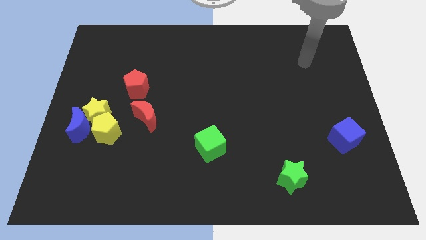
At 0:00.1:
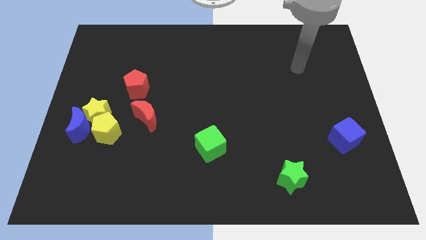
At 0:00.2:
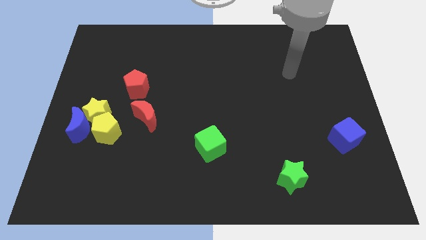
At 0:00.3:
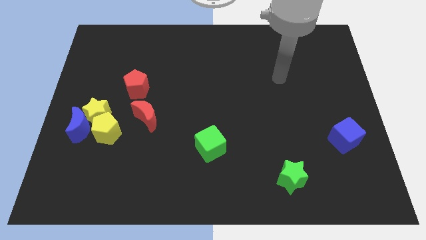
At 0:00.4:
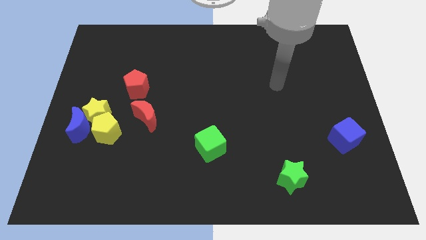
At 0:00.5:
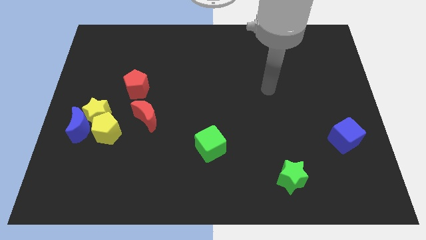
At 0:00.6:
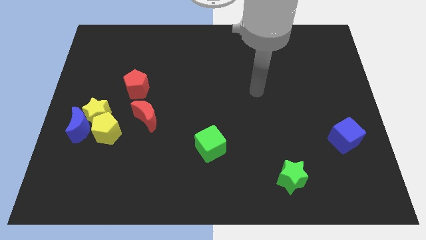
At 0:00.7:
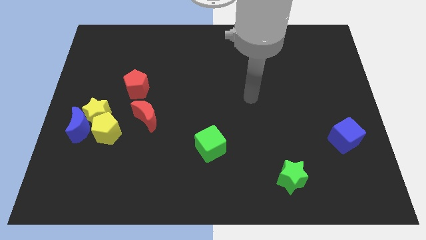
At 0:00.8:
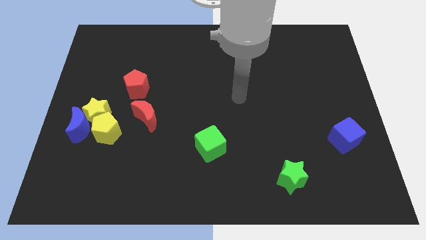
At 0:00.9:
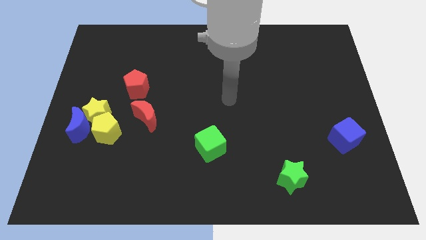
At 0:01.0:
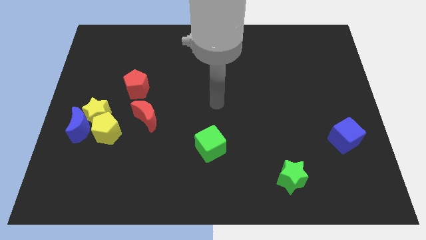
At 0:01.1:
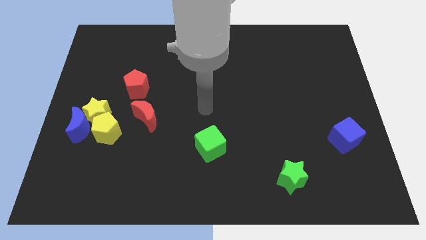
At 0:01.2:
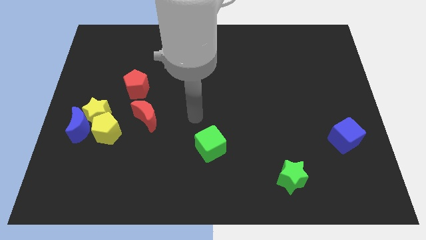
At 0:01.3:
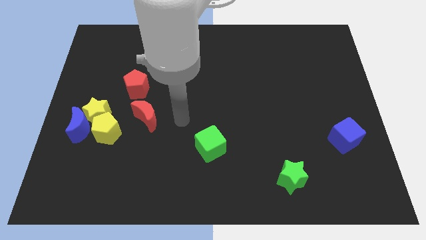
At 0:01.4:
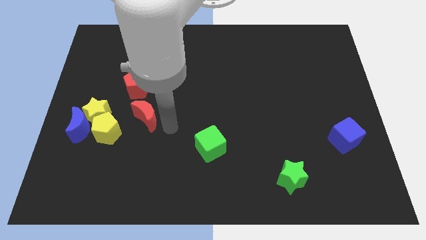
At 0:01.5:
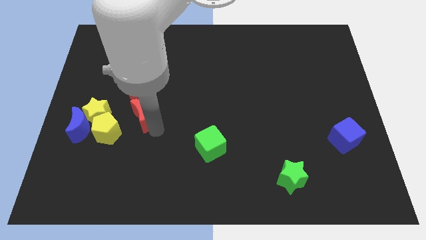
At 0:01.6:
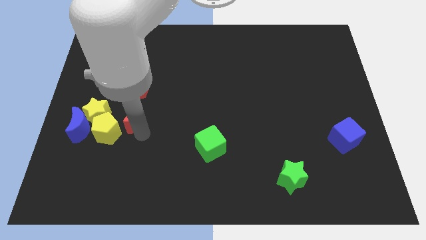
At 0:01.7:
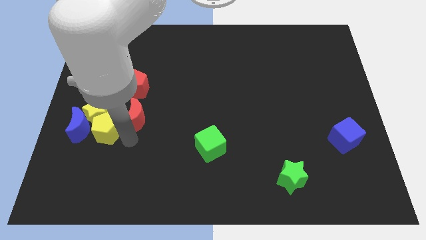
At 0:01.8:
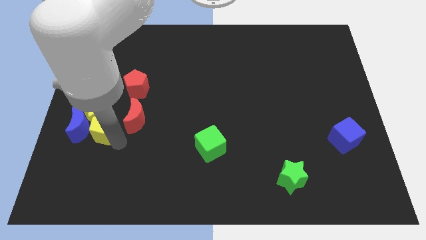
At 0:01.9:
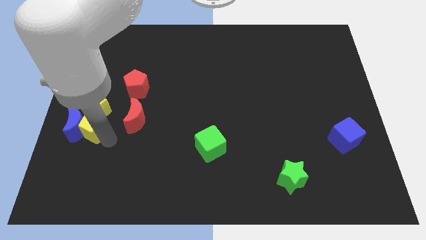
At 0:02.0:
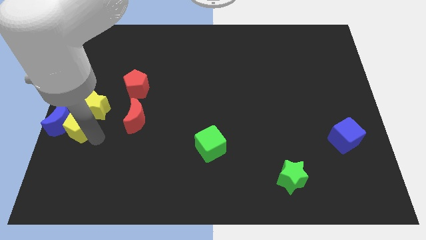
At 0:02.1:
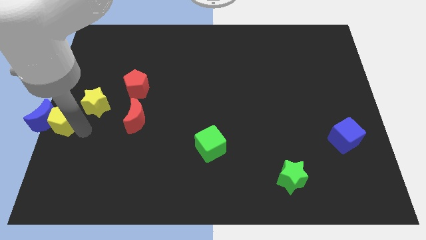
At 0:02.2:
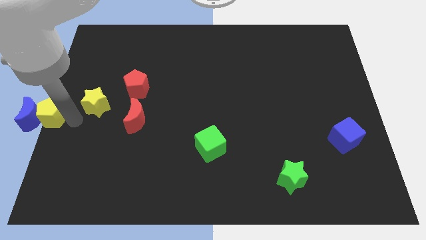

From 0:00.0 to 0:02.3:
separate the yellow star from the blue moon and yellow pentagon

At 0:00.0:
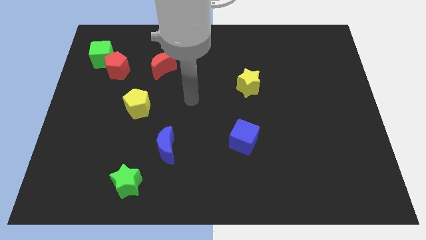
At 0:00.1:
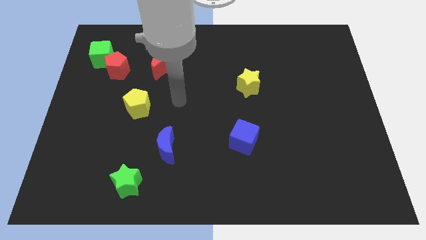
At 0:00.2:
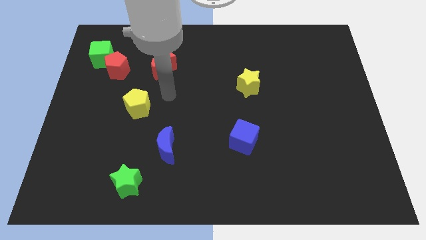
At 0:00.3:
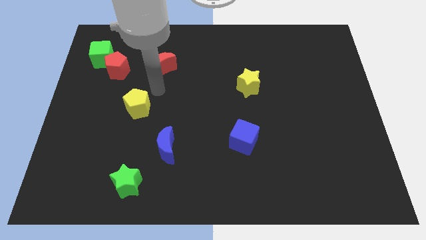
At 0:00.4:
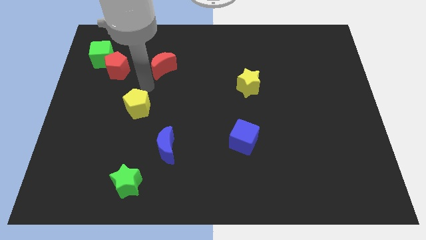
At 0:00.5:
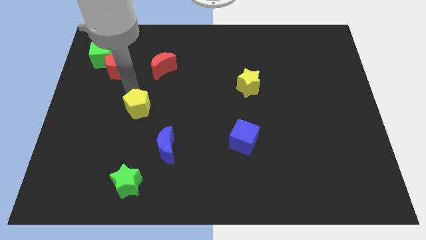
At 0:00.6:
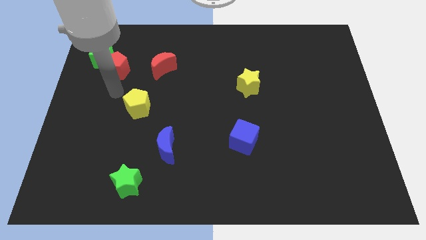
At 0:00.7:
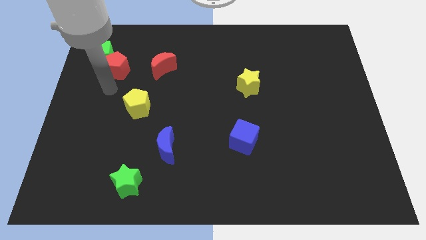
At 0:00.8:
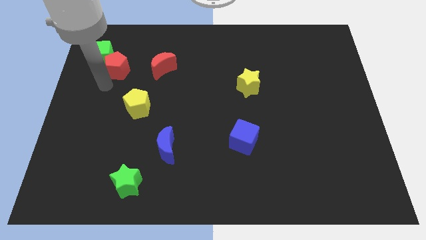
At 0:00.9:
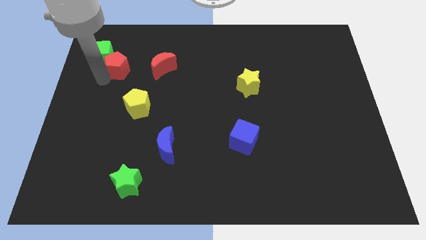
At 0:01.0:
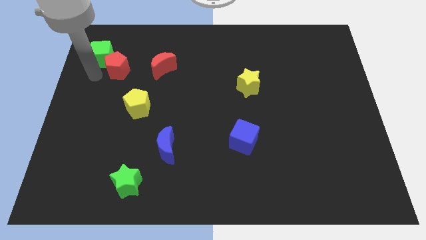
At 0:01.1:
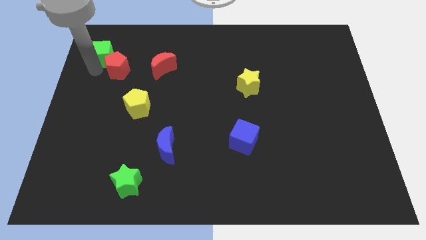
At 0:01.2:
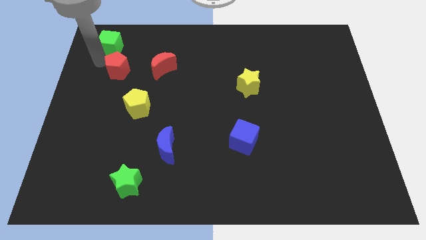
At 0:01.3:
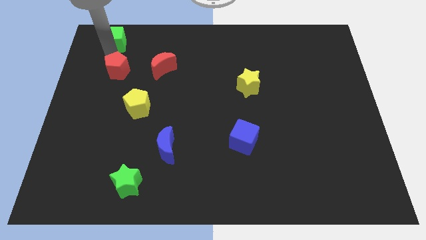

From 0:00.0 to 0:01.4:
pull the red pentagon apart from the green cube

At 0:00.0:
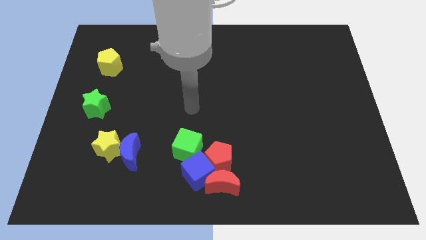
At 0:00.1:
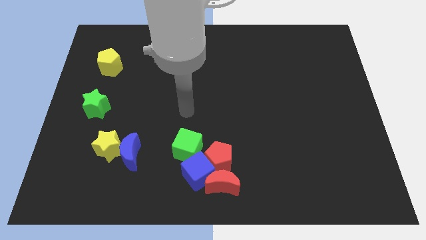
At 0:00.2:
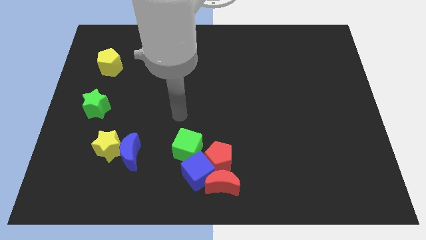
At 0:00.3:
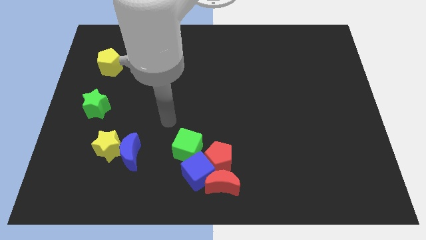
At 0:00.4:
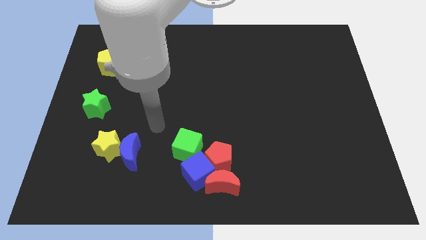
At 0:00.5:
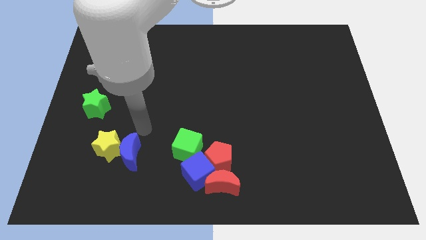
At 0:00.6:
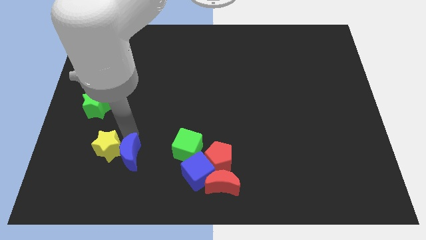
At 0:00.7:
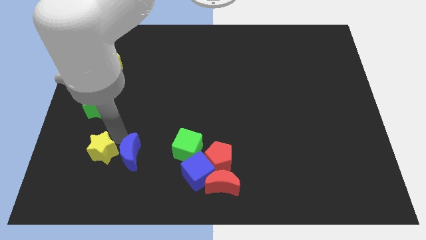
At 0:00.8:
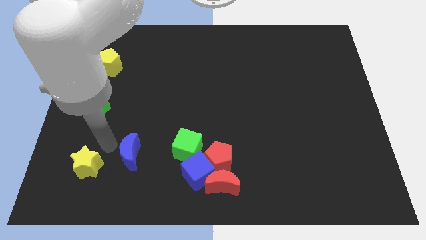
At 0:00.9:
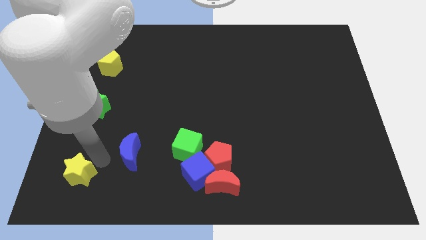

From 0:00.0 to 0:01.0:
move the blue moon away from the yellow star

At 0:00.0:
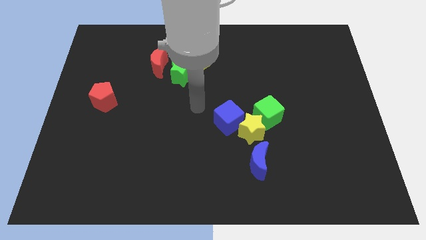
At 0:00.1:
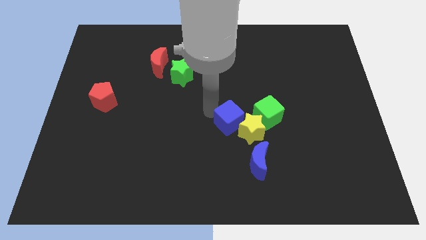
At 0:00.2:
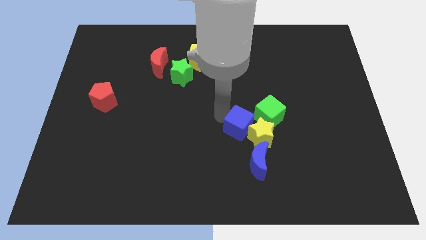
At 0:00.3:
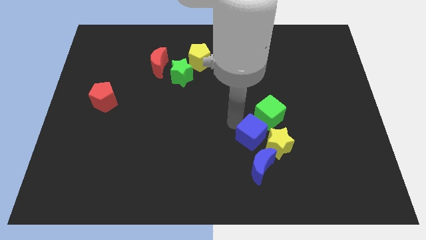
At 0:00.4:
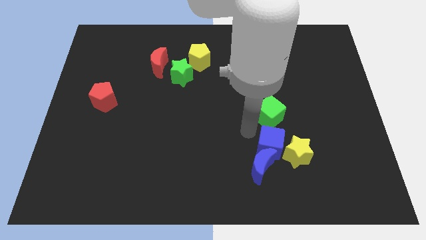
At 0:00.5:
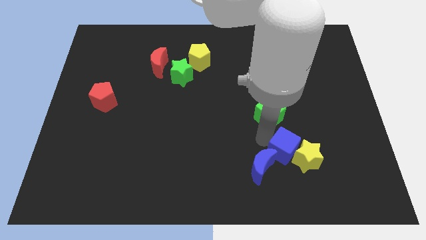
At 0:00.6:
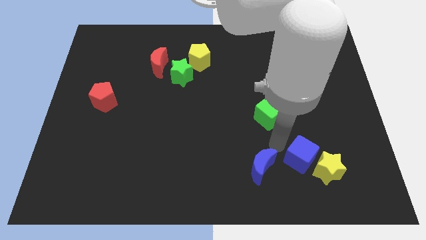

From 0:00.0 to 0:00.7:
pull the yellow star apart from the blue cube, green cube, and blue moon

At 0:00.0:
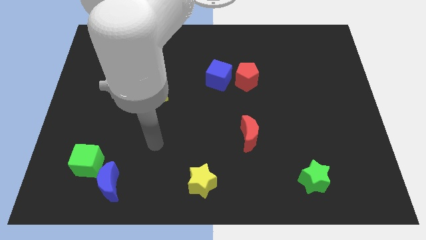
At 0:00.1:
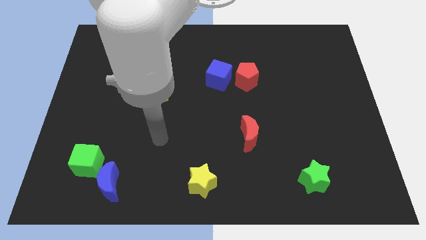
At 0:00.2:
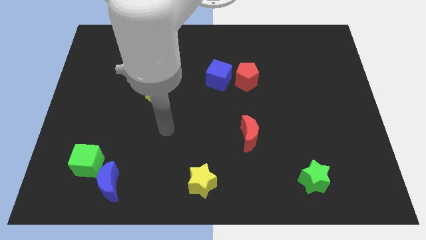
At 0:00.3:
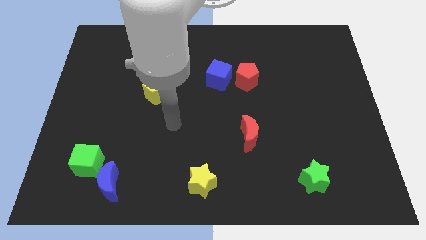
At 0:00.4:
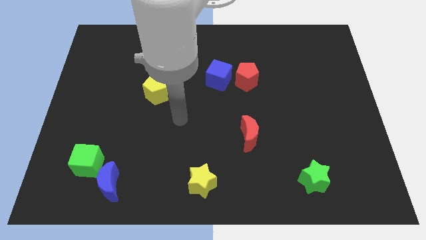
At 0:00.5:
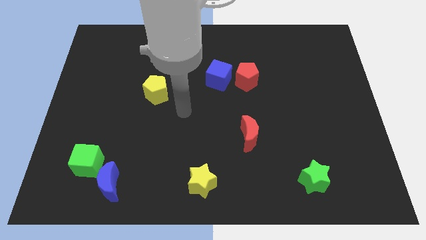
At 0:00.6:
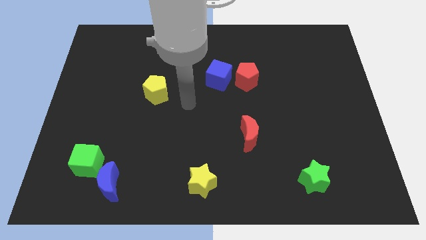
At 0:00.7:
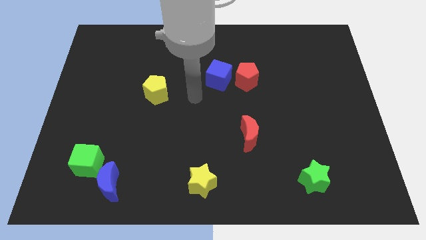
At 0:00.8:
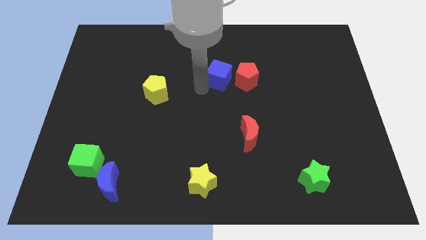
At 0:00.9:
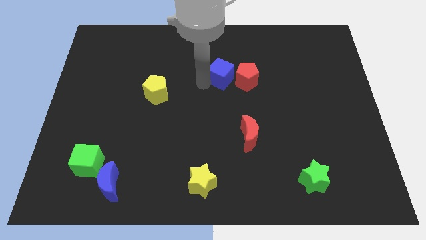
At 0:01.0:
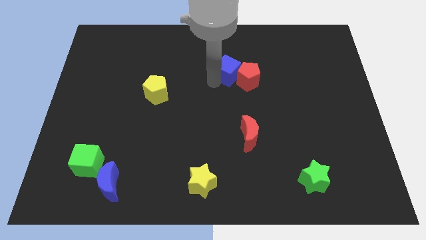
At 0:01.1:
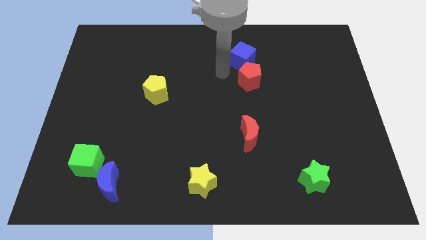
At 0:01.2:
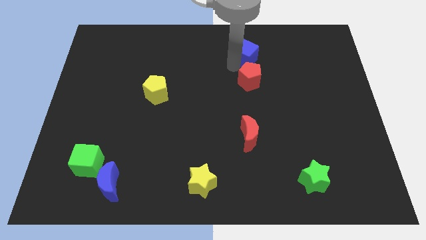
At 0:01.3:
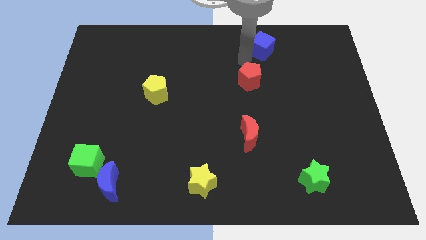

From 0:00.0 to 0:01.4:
move the red pentagon away from the blue cube

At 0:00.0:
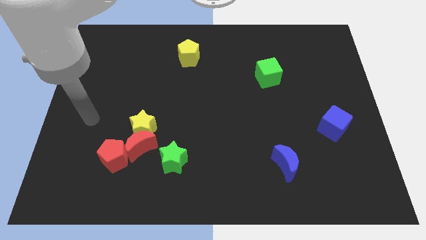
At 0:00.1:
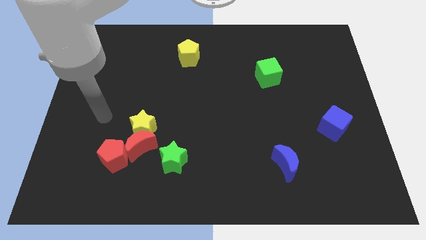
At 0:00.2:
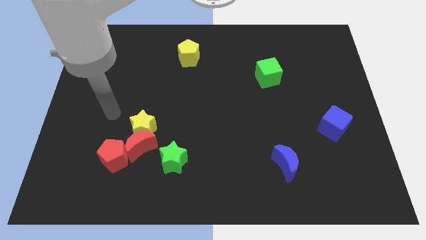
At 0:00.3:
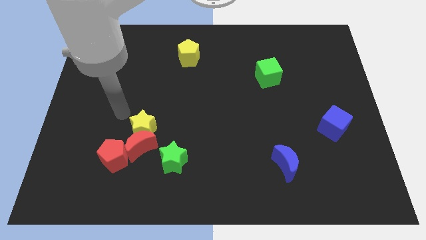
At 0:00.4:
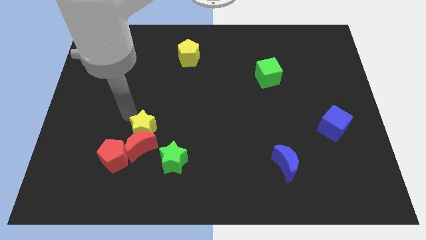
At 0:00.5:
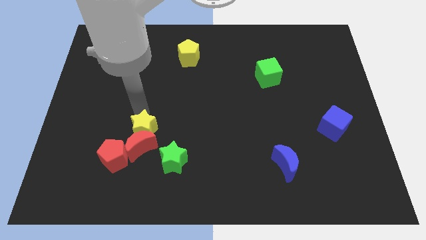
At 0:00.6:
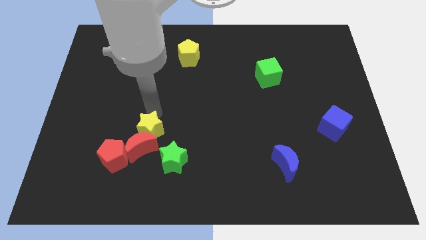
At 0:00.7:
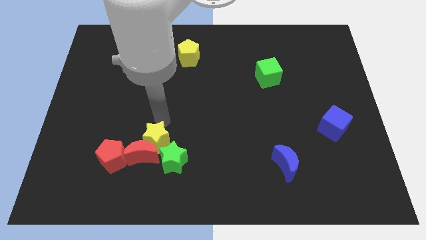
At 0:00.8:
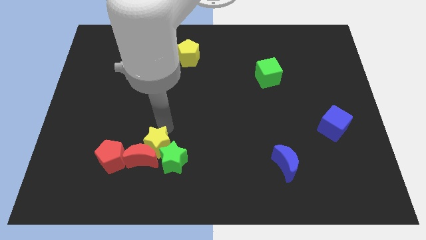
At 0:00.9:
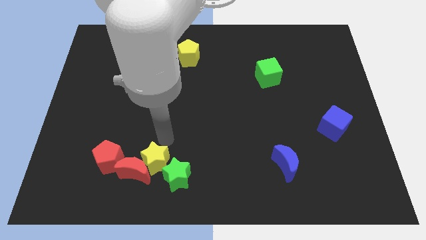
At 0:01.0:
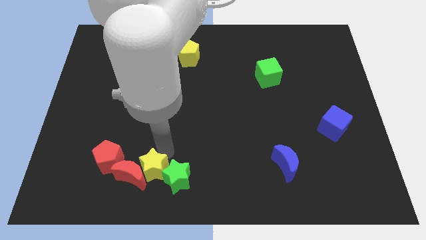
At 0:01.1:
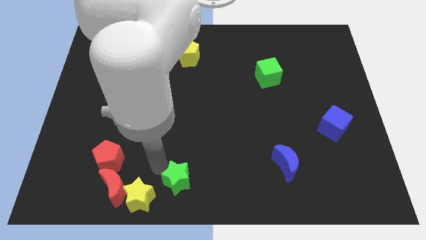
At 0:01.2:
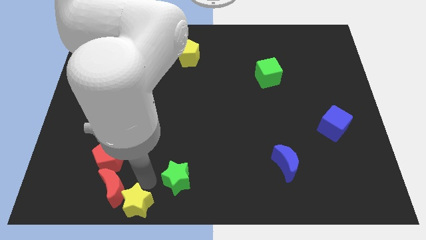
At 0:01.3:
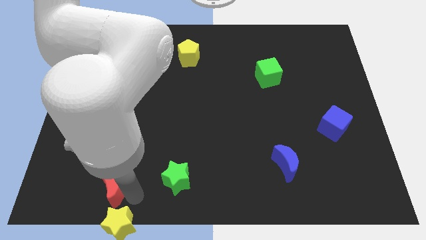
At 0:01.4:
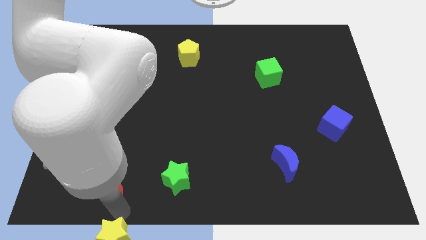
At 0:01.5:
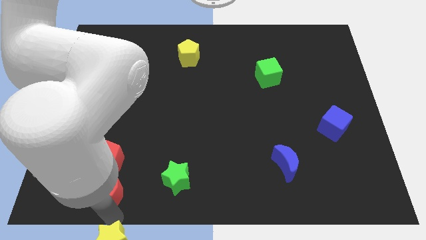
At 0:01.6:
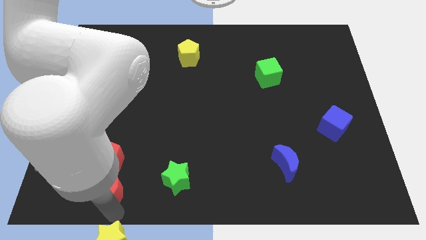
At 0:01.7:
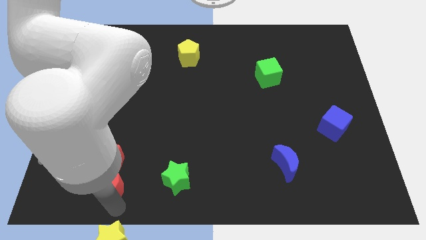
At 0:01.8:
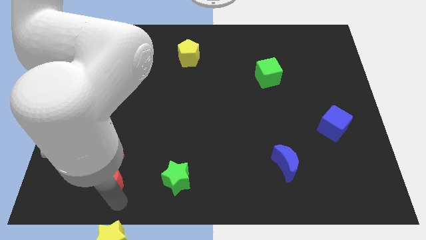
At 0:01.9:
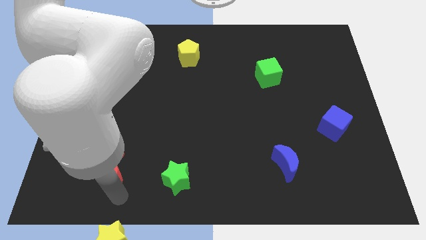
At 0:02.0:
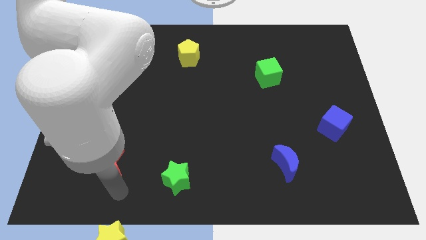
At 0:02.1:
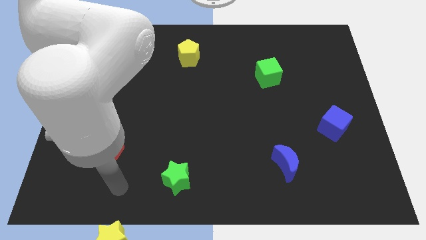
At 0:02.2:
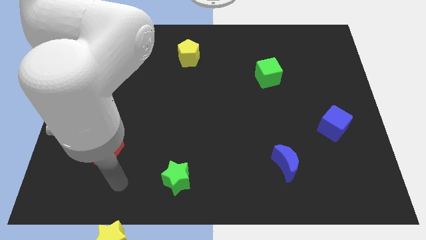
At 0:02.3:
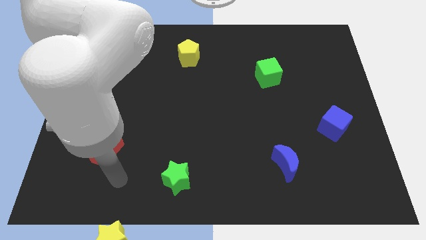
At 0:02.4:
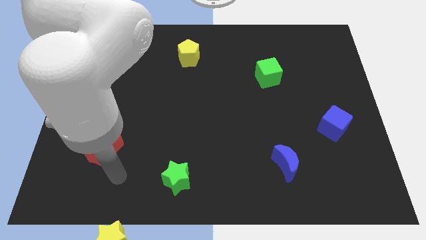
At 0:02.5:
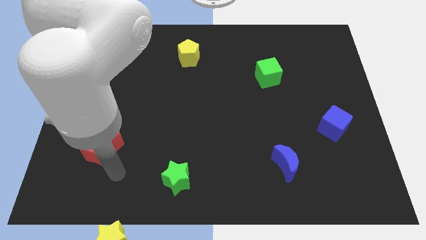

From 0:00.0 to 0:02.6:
separate the red moon from the yellow star, red pentagon, and green star
